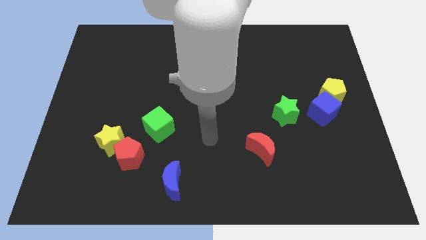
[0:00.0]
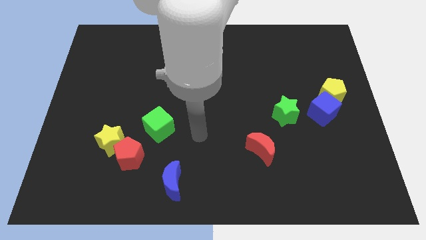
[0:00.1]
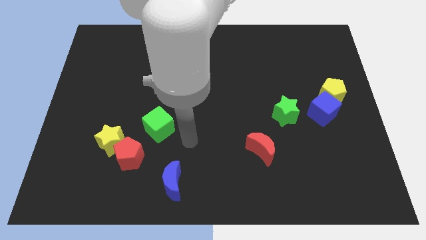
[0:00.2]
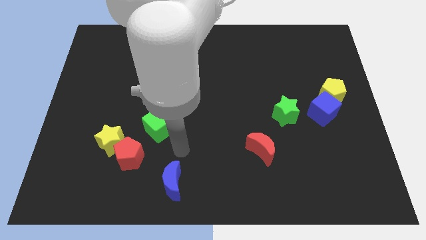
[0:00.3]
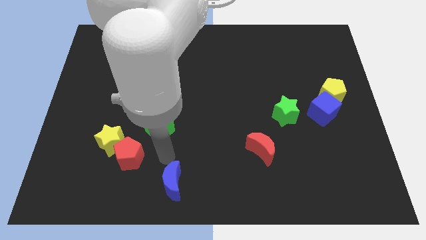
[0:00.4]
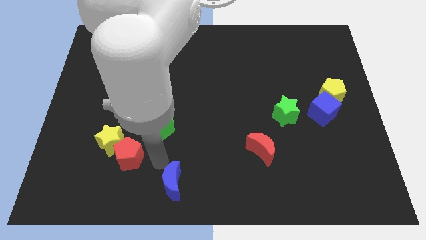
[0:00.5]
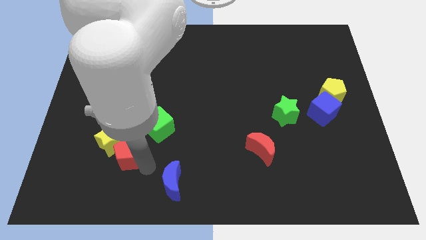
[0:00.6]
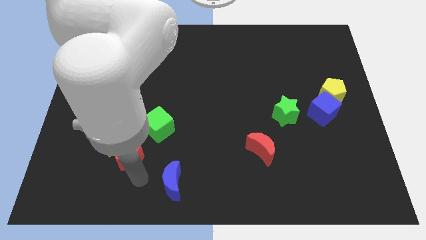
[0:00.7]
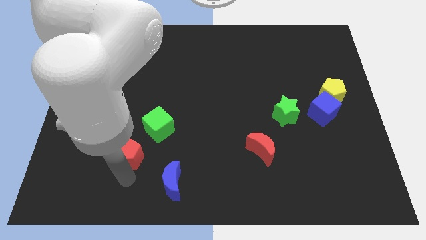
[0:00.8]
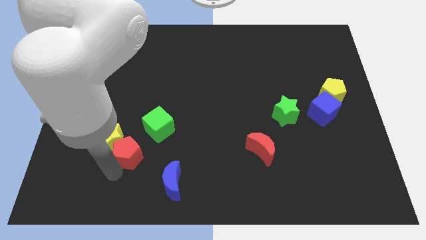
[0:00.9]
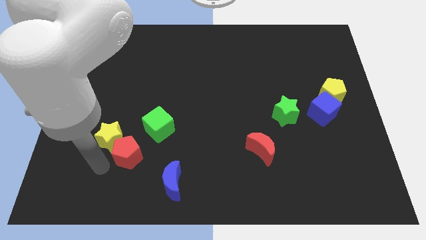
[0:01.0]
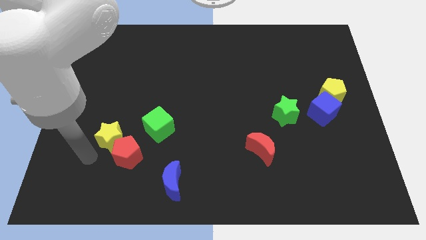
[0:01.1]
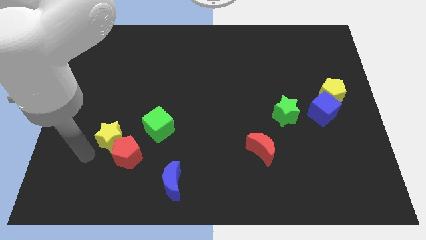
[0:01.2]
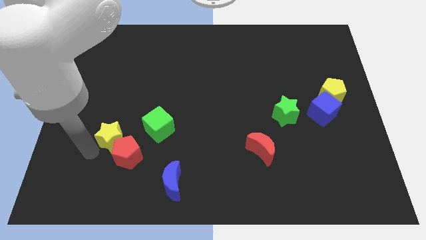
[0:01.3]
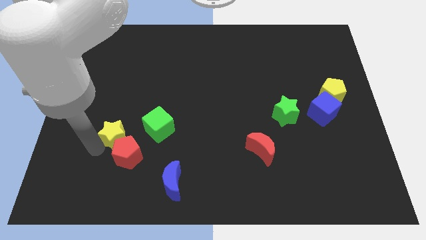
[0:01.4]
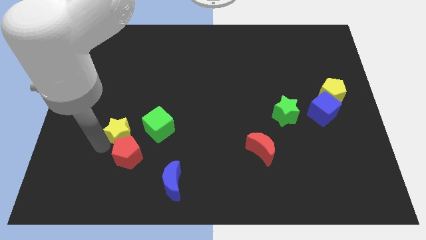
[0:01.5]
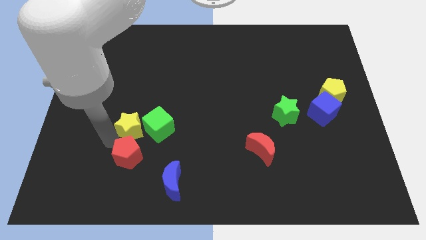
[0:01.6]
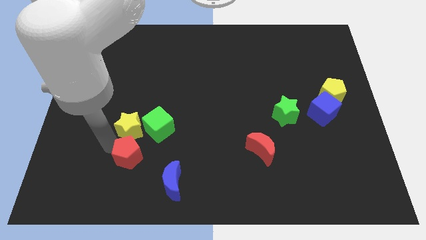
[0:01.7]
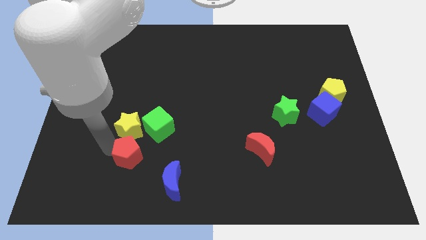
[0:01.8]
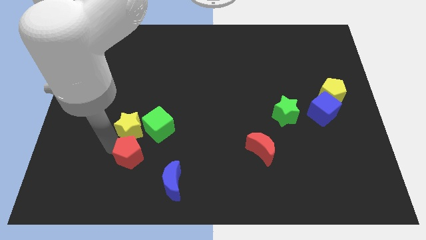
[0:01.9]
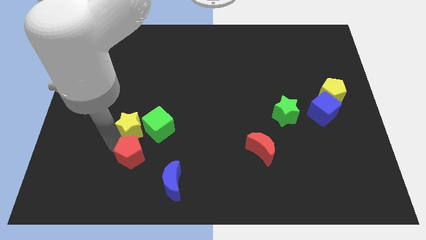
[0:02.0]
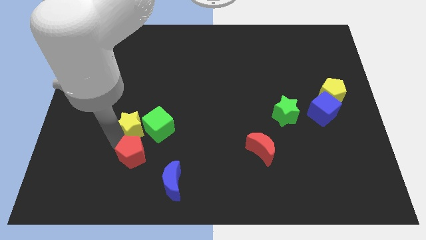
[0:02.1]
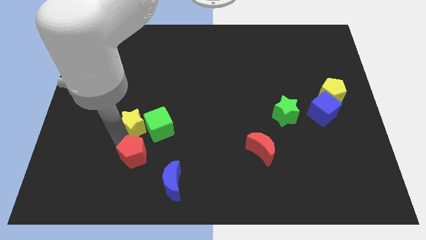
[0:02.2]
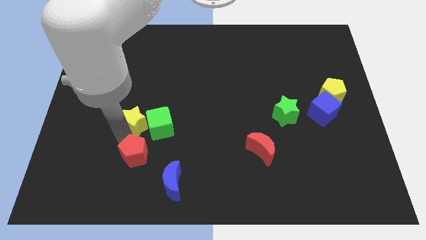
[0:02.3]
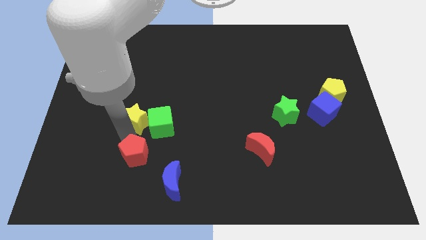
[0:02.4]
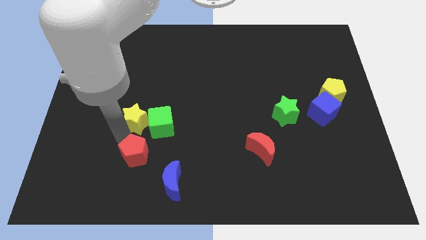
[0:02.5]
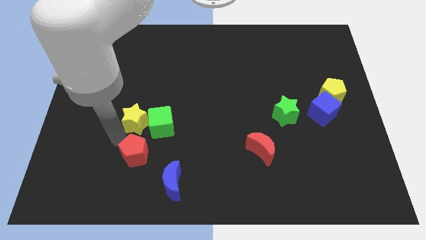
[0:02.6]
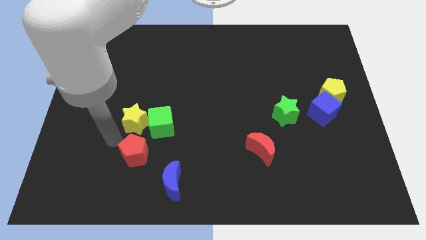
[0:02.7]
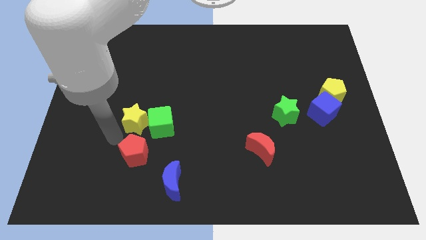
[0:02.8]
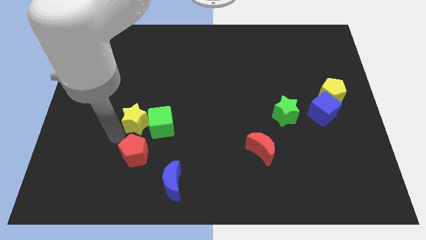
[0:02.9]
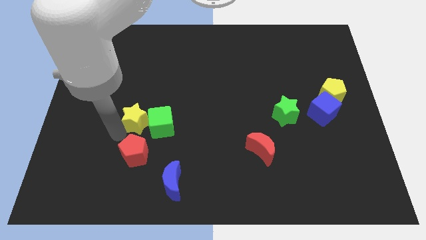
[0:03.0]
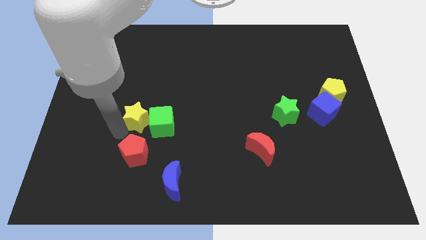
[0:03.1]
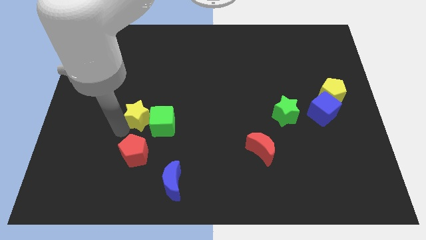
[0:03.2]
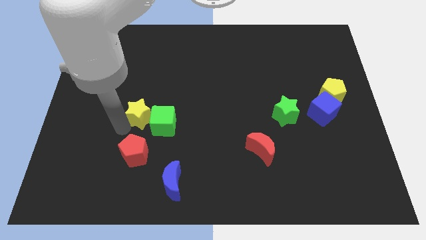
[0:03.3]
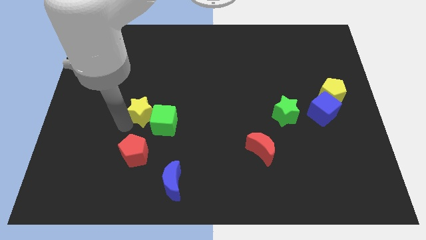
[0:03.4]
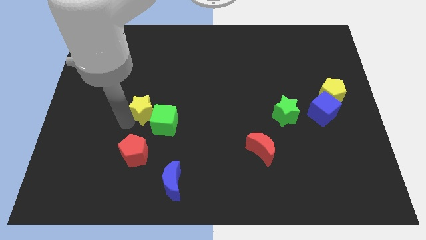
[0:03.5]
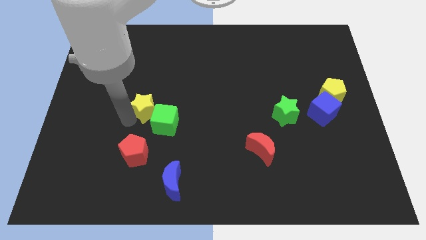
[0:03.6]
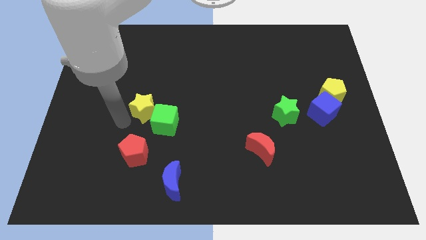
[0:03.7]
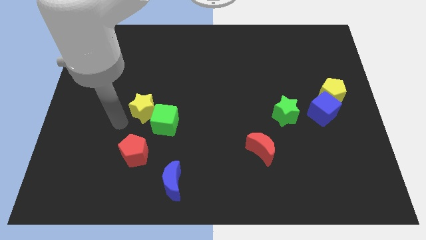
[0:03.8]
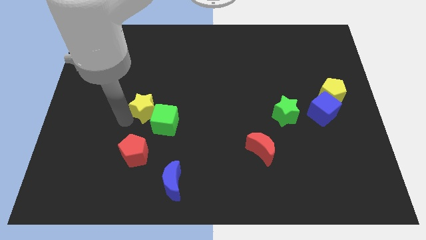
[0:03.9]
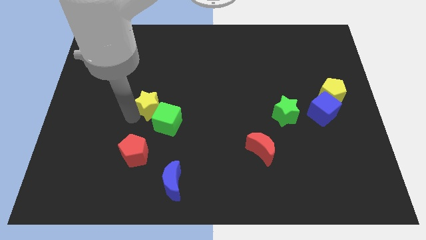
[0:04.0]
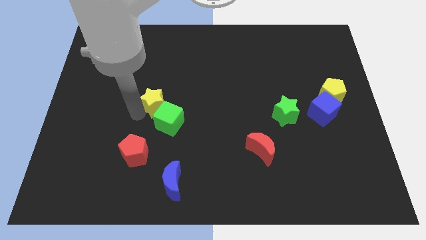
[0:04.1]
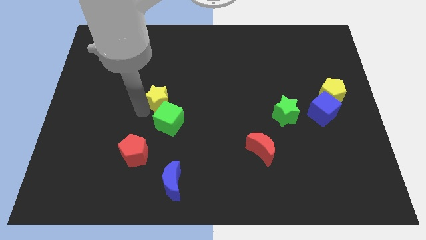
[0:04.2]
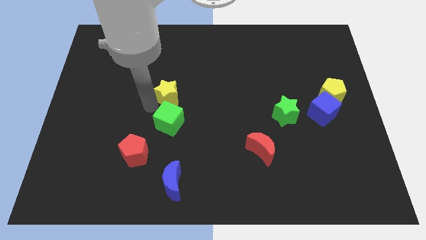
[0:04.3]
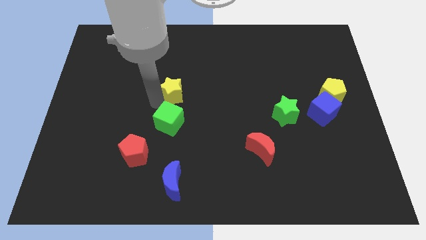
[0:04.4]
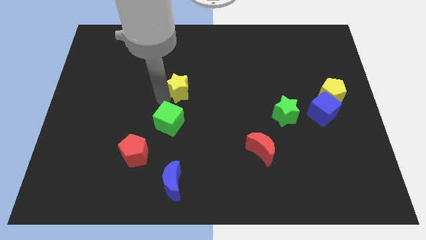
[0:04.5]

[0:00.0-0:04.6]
push the yellow star upwards and then right

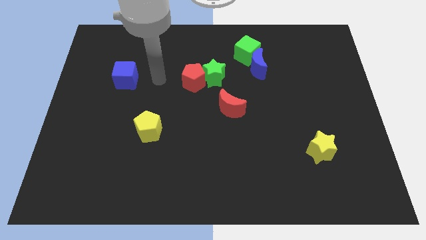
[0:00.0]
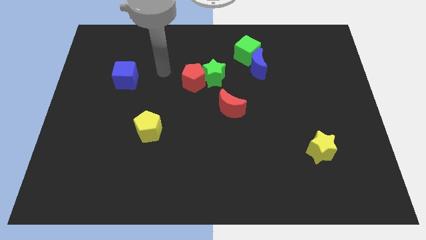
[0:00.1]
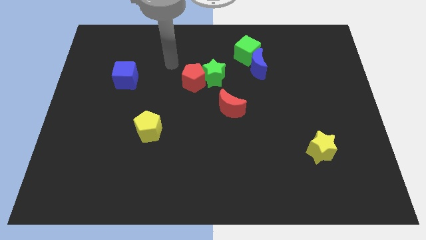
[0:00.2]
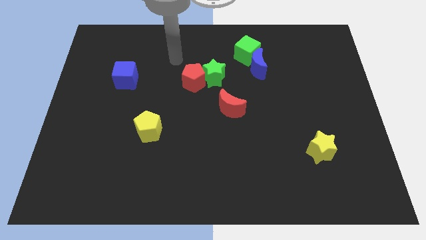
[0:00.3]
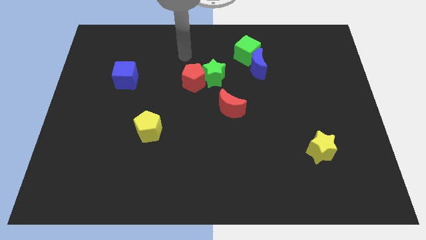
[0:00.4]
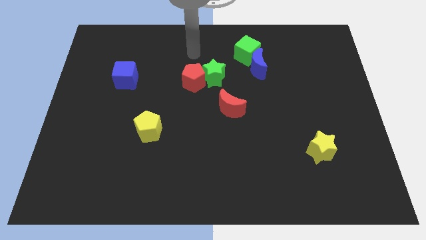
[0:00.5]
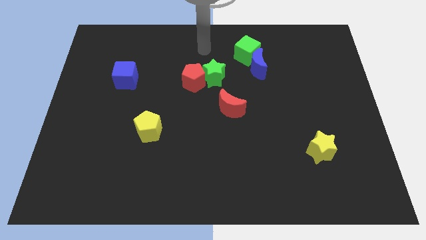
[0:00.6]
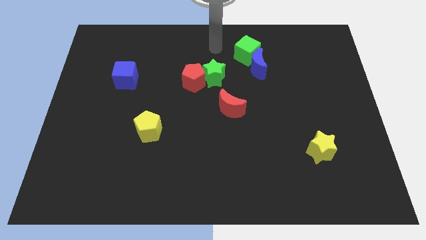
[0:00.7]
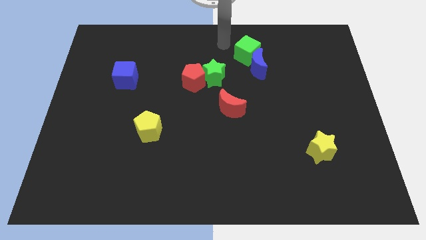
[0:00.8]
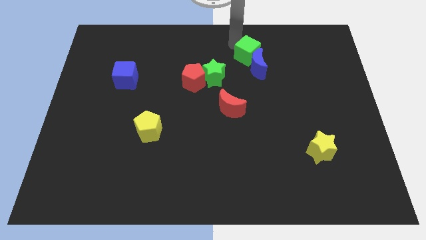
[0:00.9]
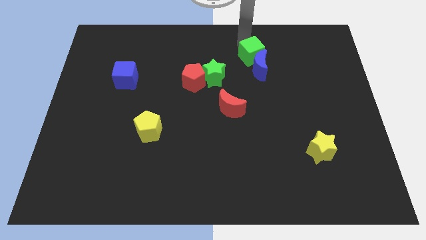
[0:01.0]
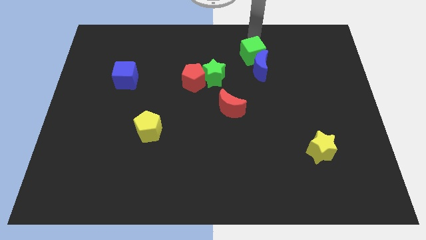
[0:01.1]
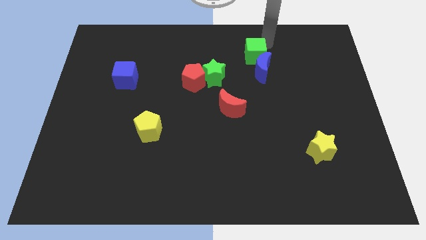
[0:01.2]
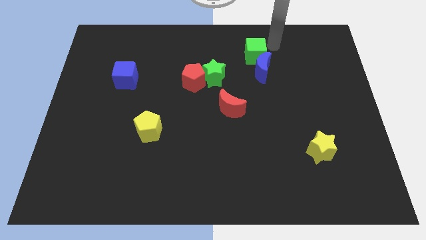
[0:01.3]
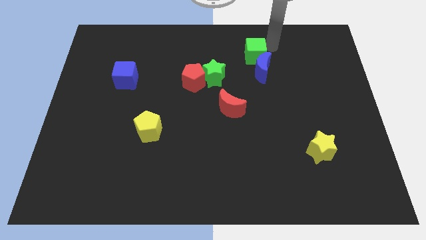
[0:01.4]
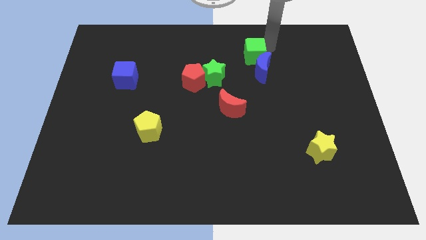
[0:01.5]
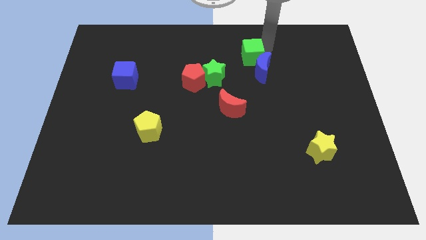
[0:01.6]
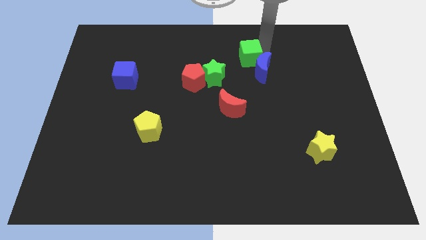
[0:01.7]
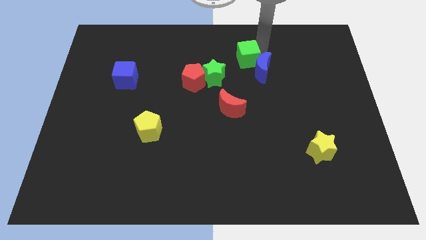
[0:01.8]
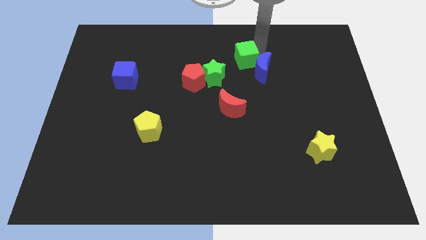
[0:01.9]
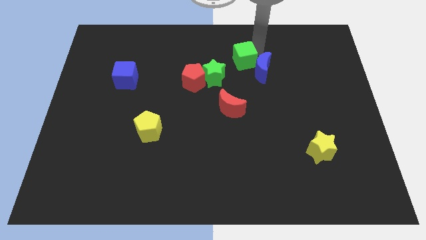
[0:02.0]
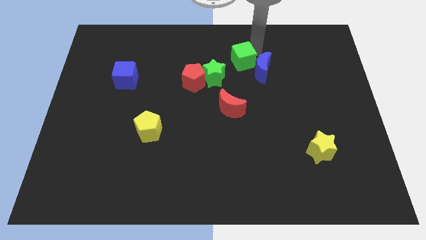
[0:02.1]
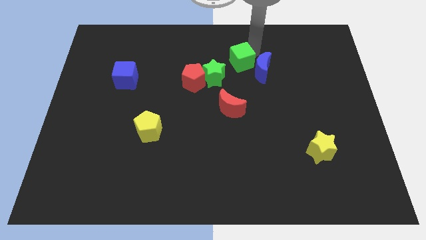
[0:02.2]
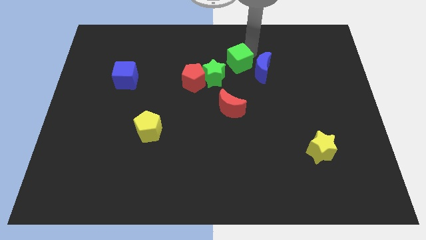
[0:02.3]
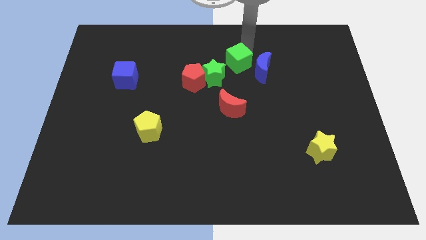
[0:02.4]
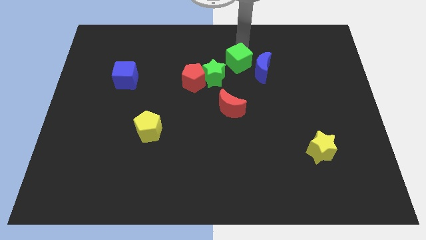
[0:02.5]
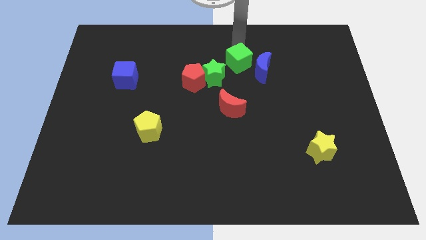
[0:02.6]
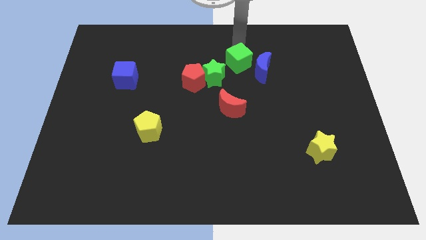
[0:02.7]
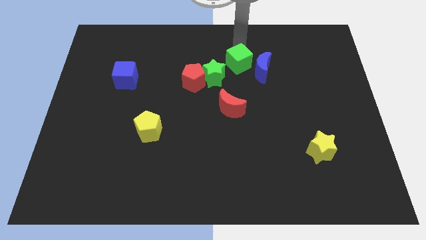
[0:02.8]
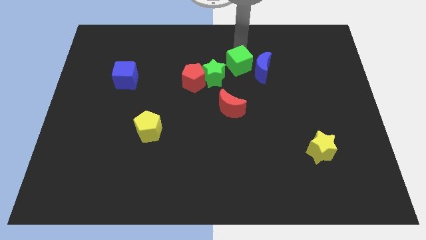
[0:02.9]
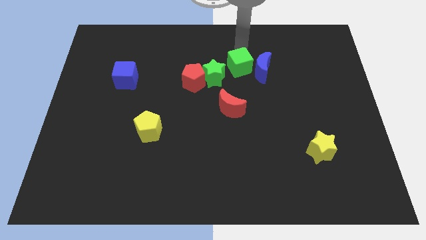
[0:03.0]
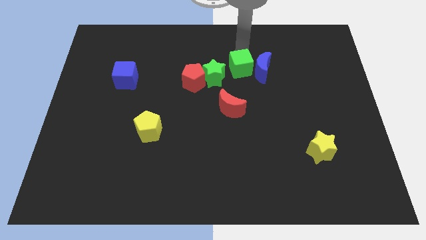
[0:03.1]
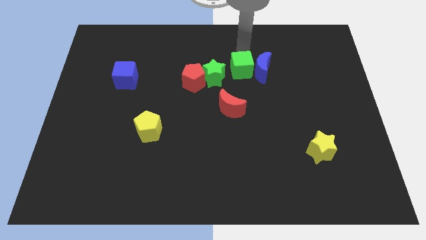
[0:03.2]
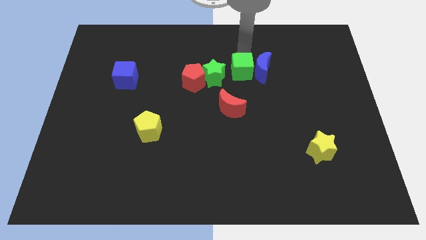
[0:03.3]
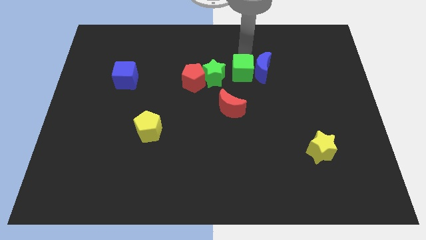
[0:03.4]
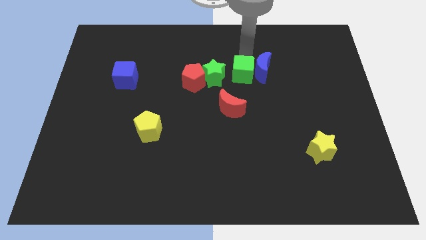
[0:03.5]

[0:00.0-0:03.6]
slide the green cube a bit downwards
